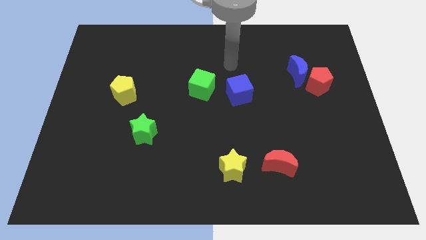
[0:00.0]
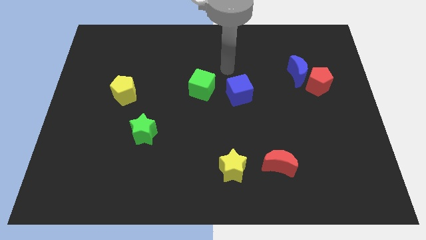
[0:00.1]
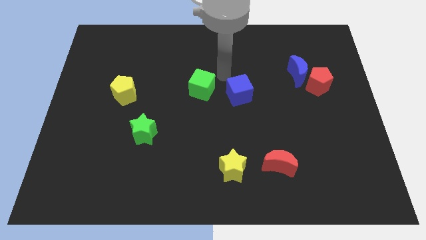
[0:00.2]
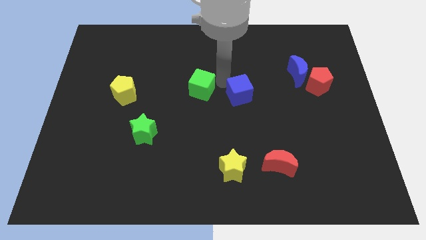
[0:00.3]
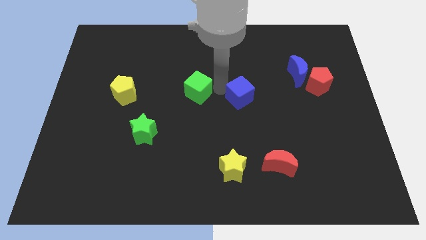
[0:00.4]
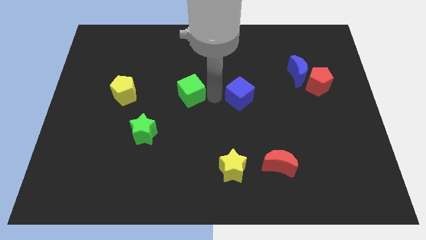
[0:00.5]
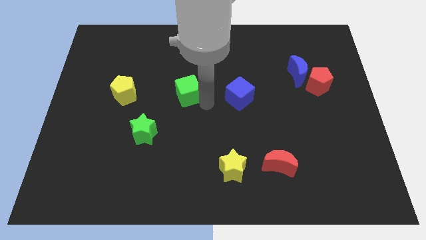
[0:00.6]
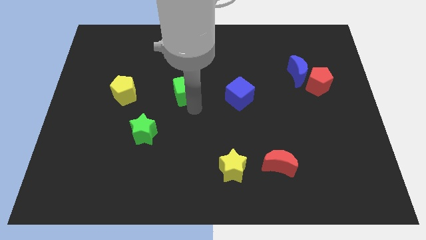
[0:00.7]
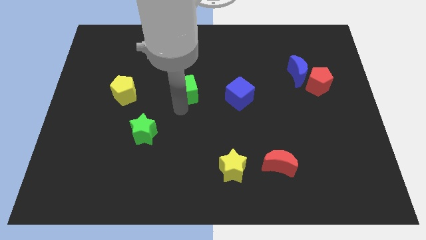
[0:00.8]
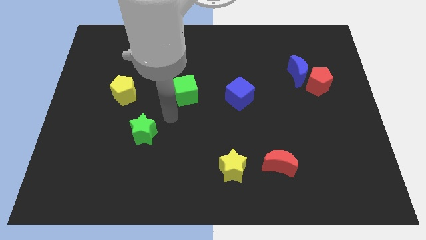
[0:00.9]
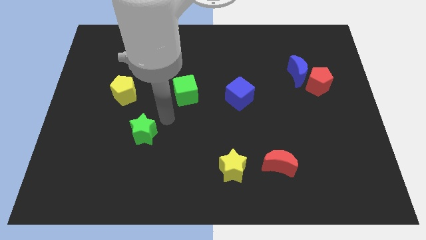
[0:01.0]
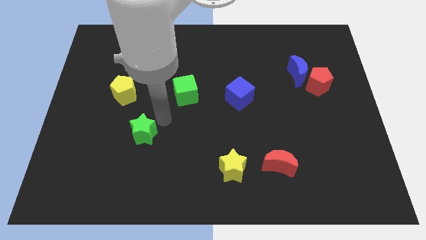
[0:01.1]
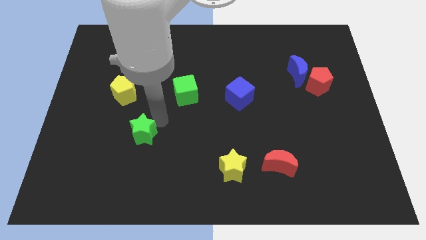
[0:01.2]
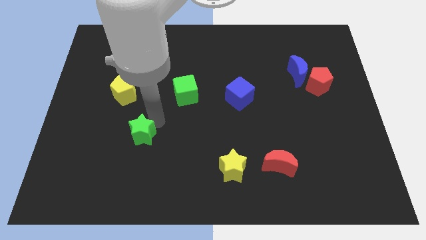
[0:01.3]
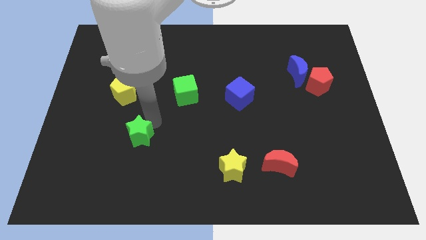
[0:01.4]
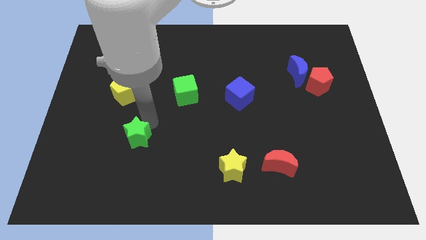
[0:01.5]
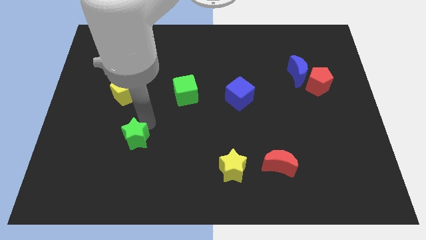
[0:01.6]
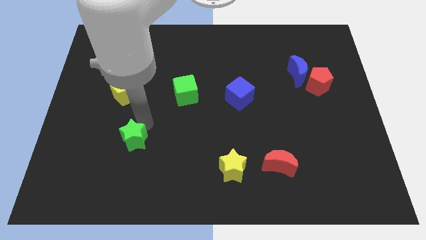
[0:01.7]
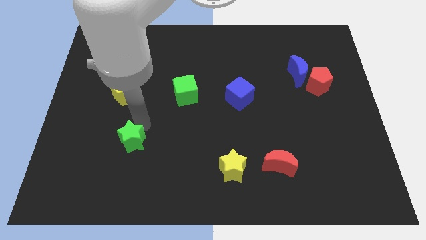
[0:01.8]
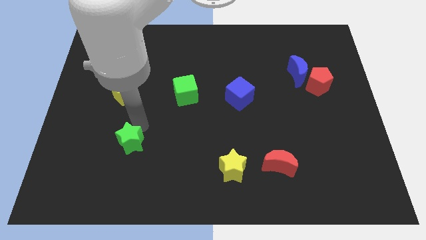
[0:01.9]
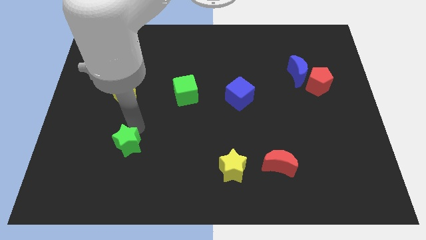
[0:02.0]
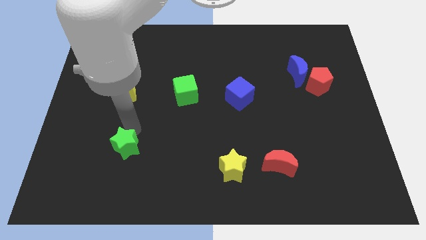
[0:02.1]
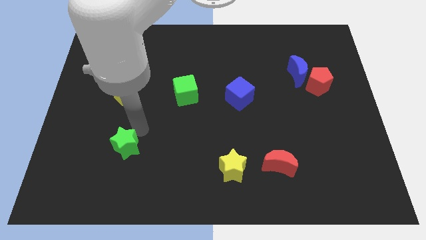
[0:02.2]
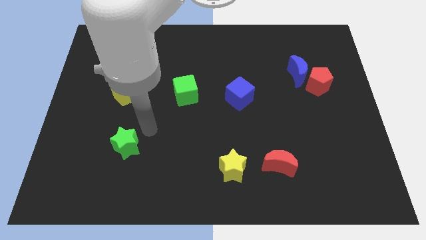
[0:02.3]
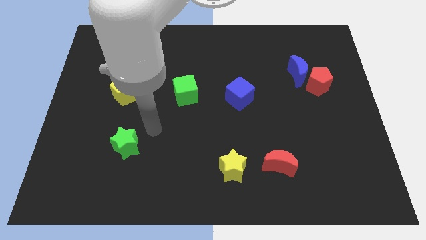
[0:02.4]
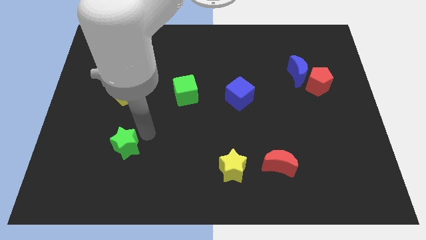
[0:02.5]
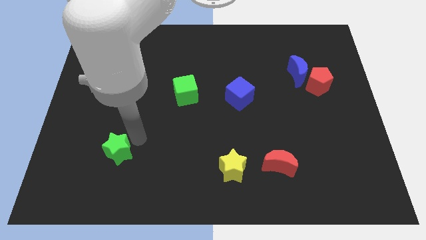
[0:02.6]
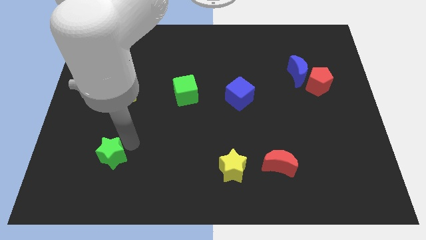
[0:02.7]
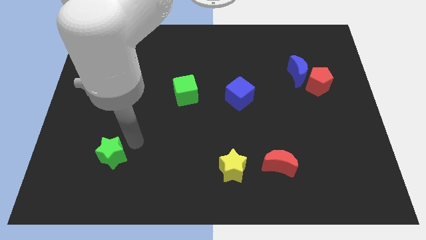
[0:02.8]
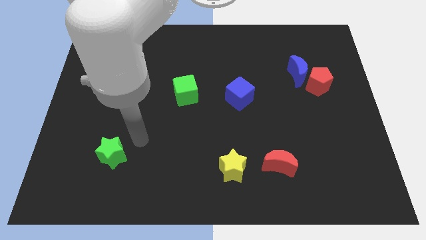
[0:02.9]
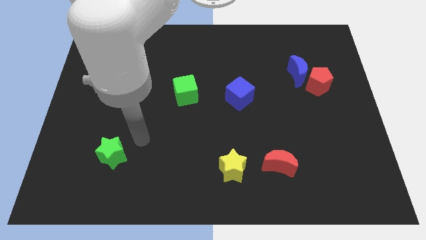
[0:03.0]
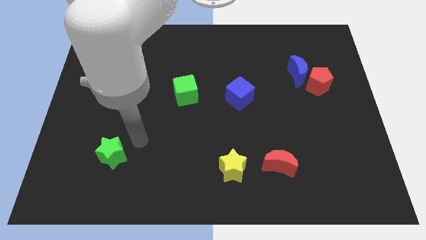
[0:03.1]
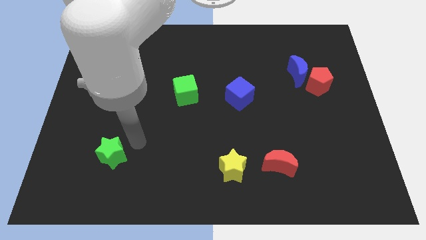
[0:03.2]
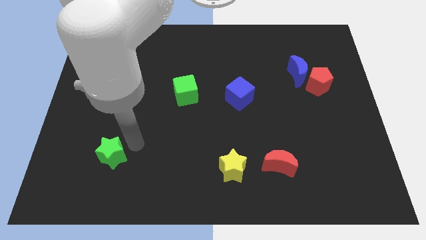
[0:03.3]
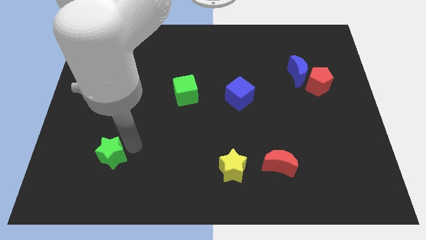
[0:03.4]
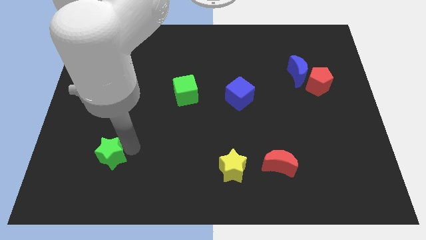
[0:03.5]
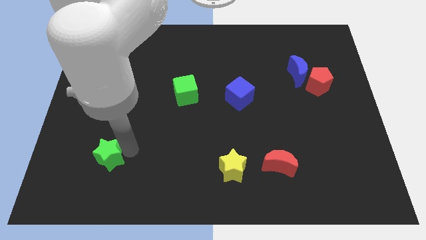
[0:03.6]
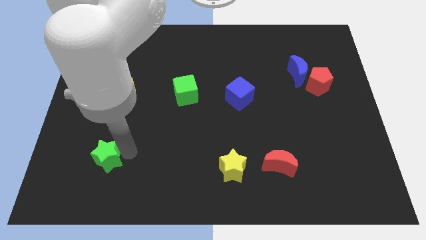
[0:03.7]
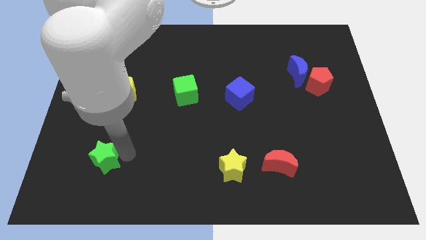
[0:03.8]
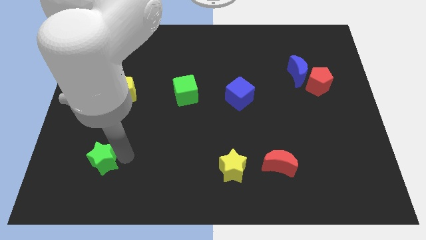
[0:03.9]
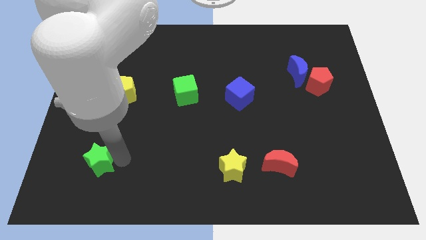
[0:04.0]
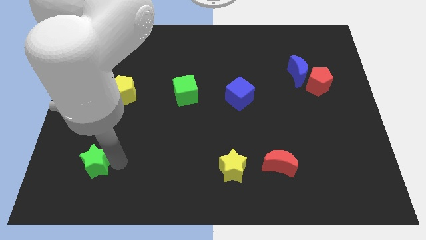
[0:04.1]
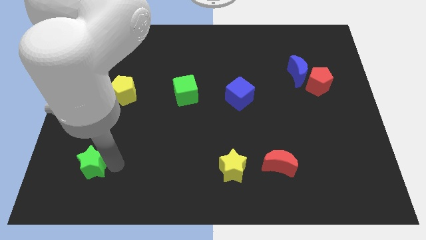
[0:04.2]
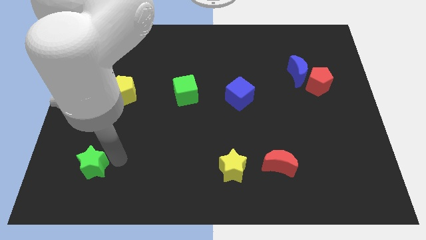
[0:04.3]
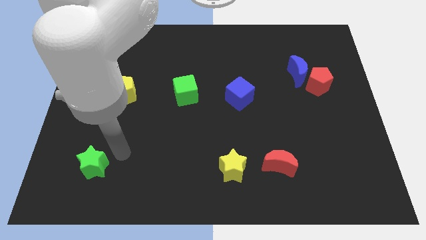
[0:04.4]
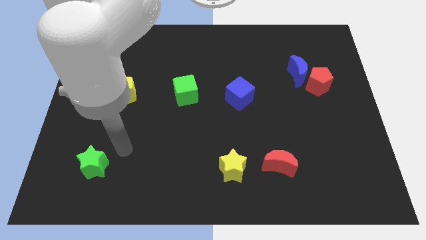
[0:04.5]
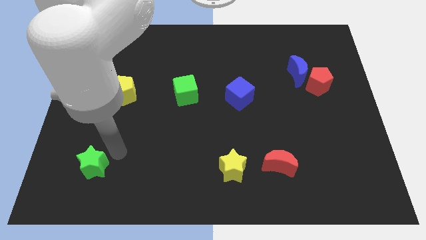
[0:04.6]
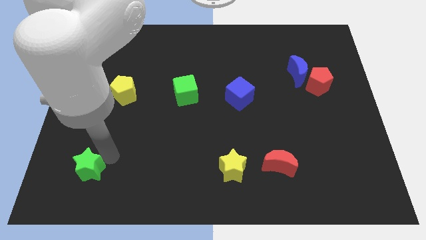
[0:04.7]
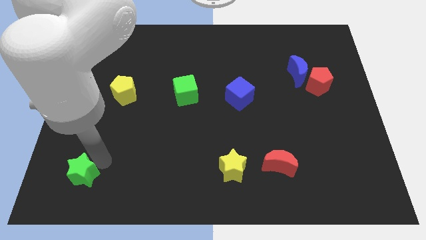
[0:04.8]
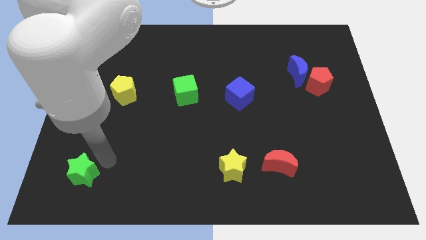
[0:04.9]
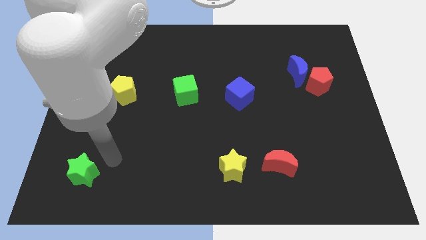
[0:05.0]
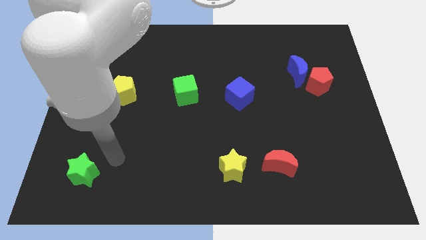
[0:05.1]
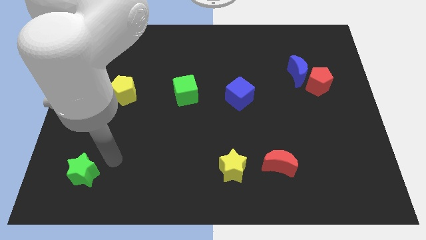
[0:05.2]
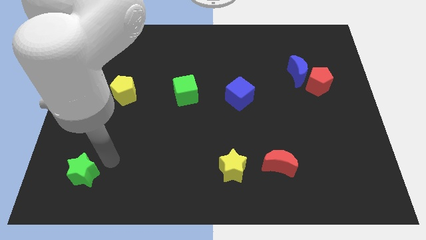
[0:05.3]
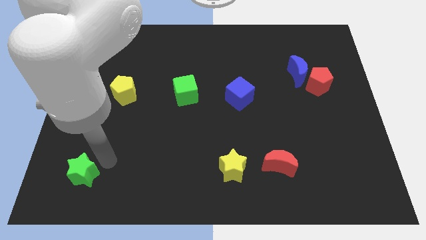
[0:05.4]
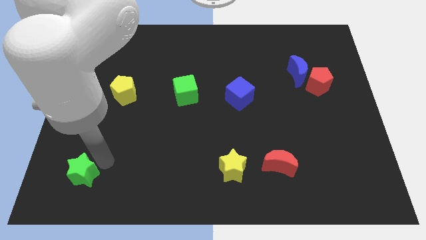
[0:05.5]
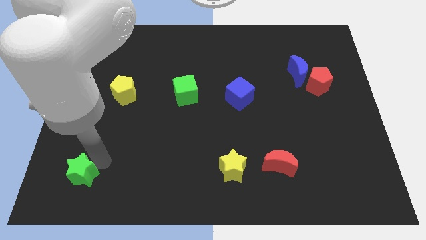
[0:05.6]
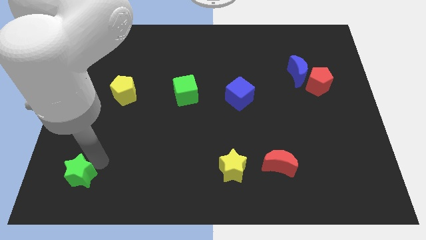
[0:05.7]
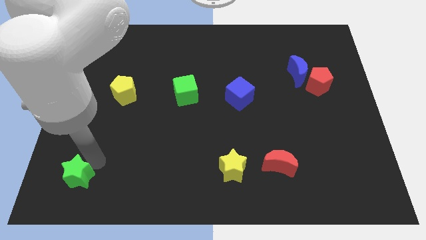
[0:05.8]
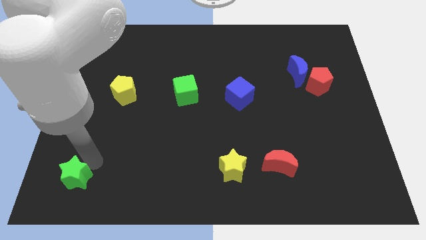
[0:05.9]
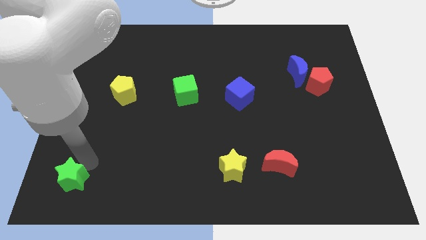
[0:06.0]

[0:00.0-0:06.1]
slide the green star to the bottom left of the board

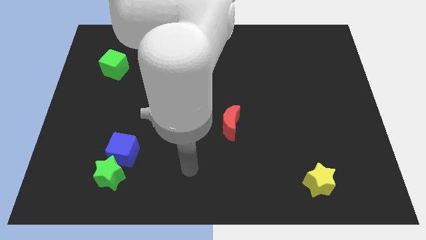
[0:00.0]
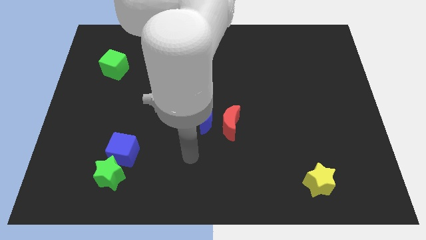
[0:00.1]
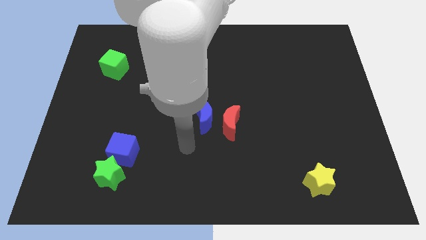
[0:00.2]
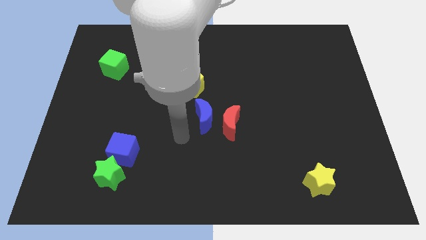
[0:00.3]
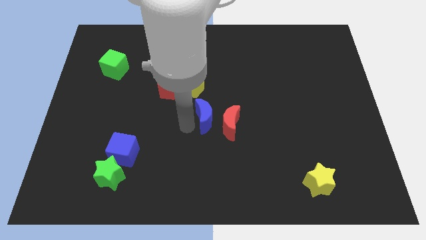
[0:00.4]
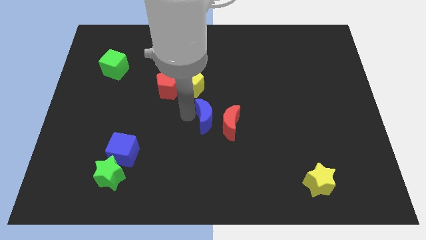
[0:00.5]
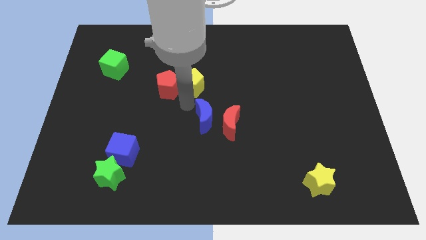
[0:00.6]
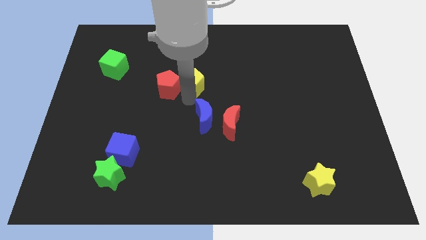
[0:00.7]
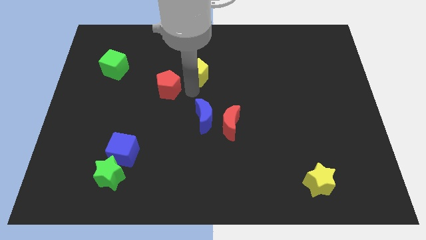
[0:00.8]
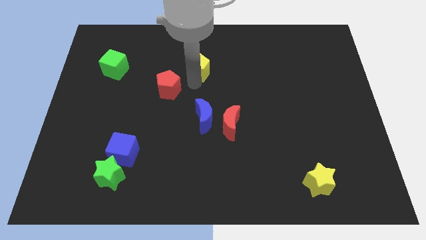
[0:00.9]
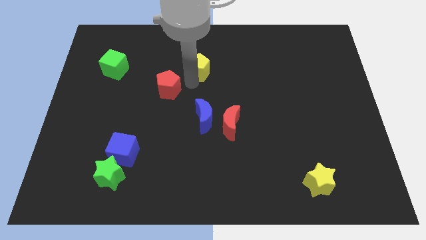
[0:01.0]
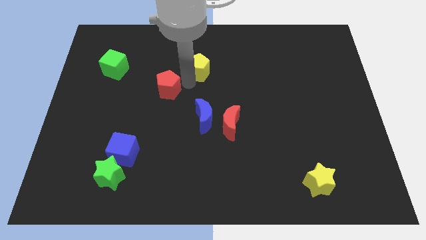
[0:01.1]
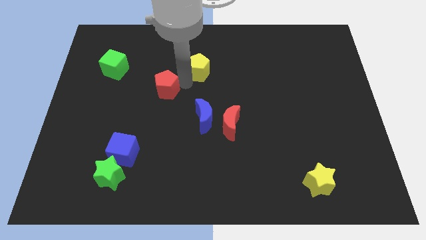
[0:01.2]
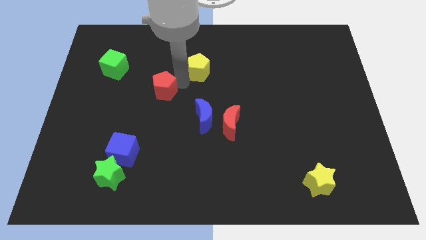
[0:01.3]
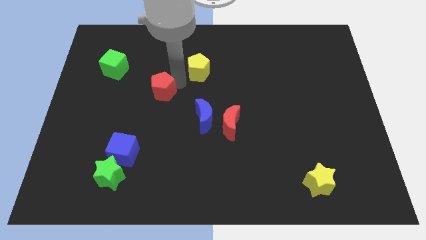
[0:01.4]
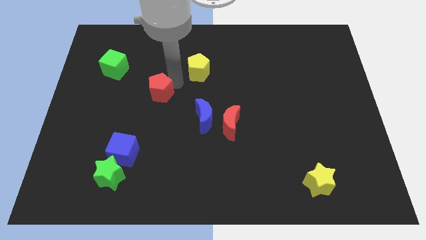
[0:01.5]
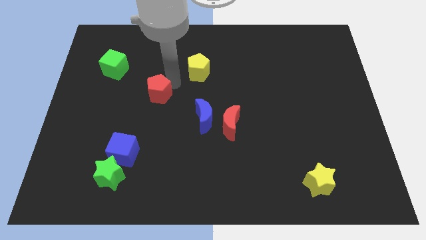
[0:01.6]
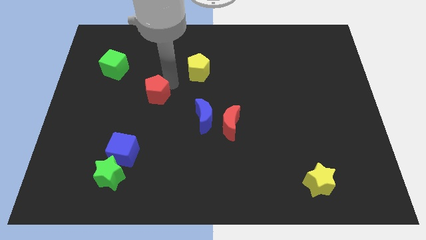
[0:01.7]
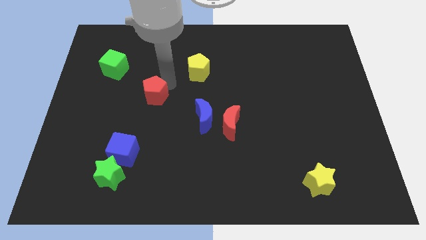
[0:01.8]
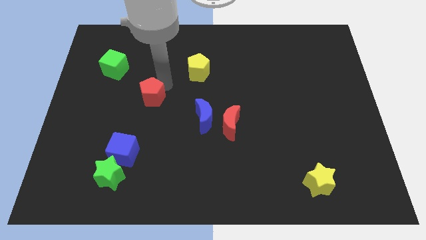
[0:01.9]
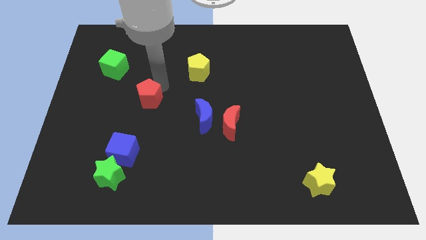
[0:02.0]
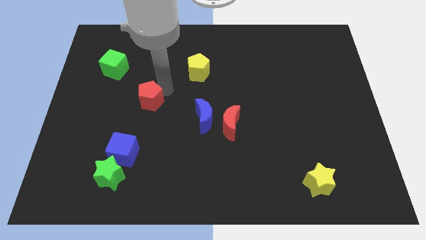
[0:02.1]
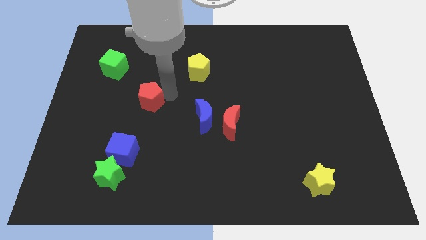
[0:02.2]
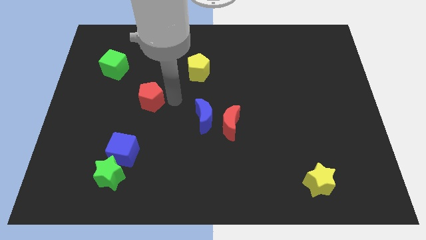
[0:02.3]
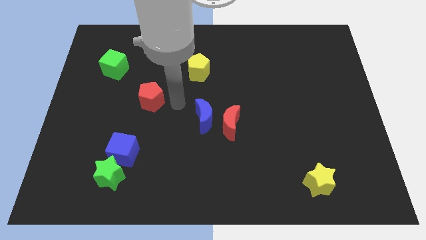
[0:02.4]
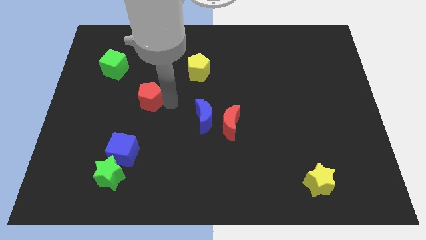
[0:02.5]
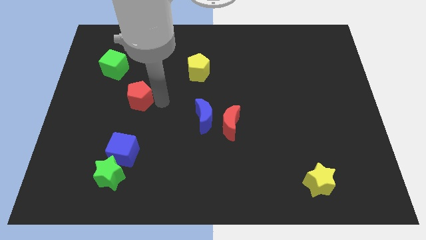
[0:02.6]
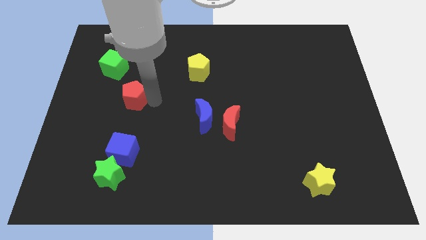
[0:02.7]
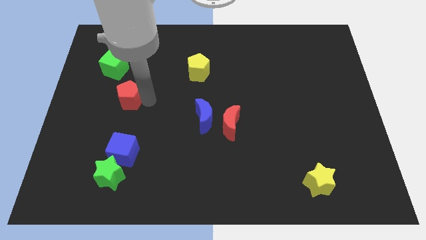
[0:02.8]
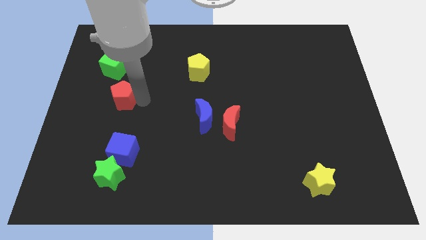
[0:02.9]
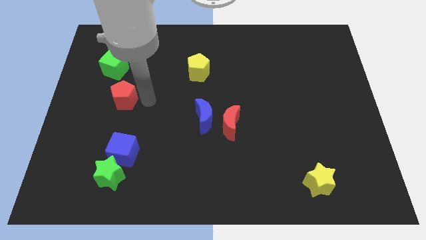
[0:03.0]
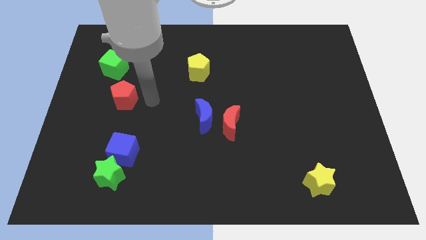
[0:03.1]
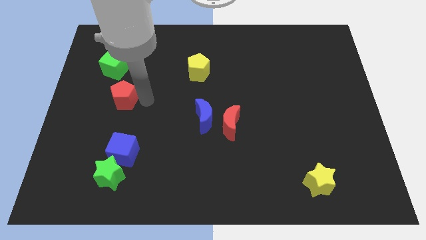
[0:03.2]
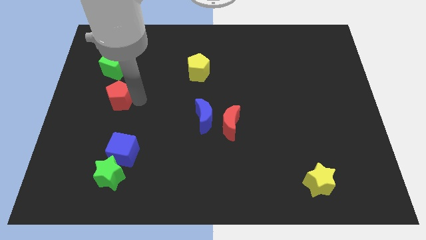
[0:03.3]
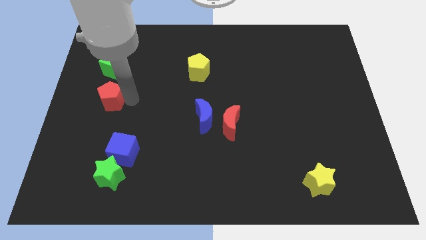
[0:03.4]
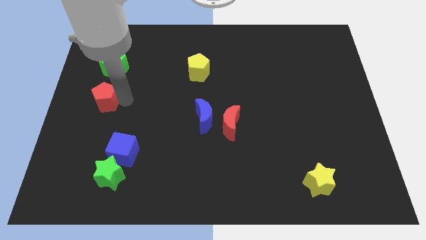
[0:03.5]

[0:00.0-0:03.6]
put the red pentagon to the left side of the board
